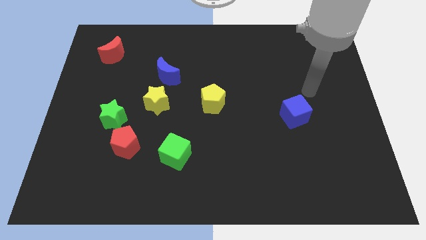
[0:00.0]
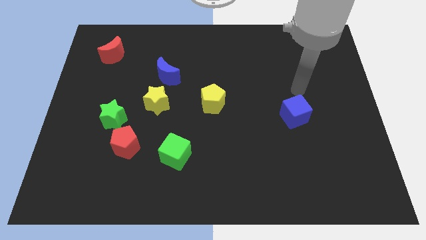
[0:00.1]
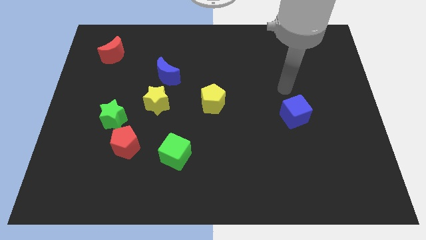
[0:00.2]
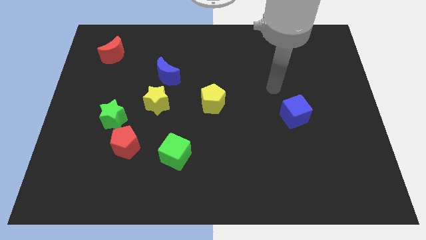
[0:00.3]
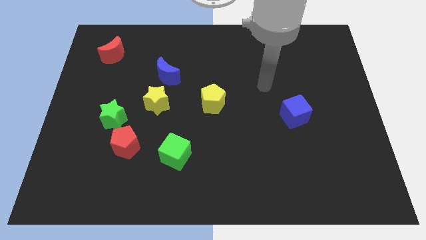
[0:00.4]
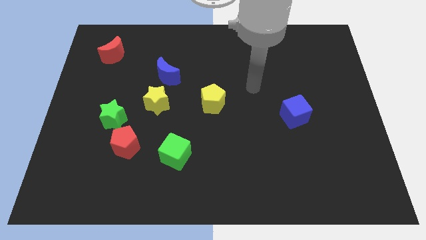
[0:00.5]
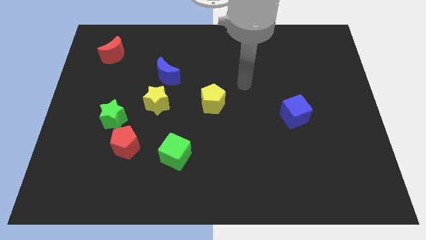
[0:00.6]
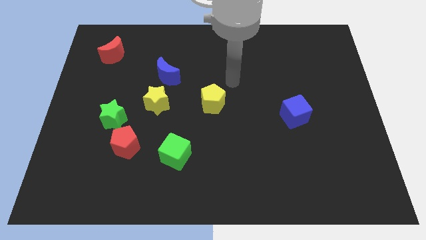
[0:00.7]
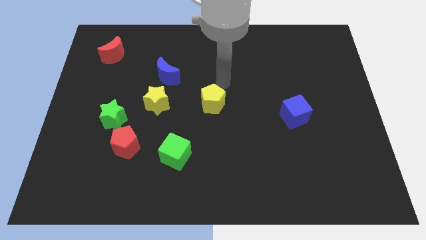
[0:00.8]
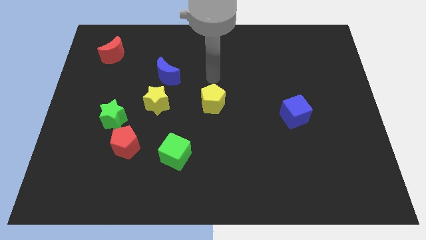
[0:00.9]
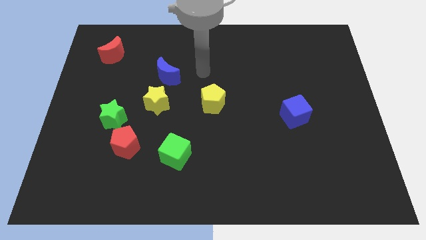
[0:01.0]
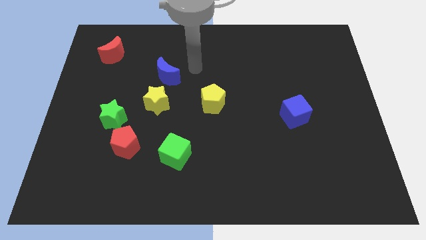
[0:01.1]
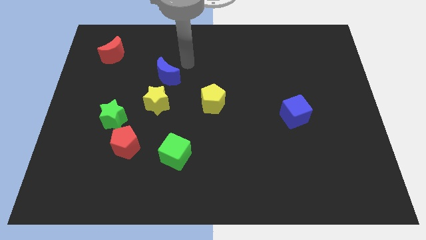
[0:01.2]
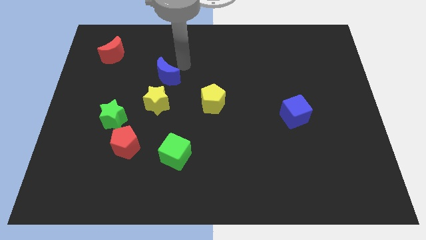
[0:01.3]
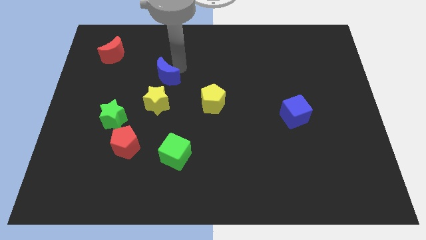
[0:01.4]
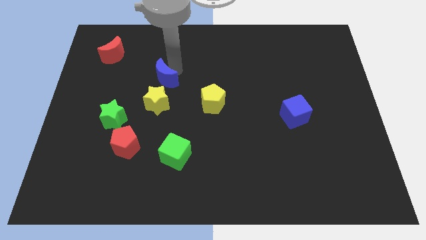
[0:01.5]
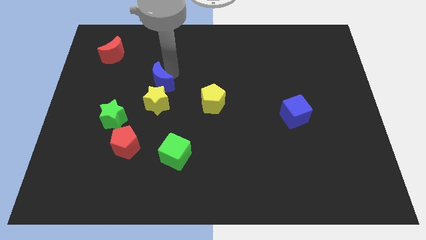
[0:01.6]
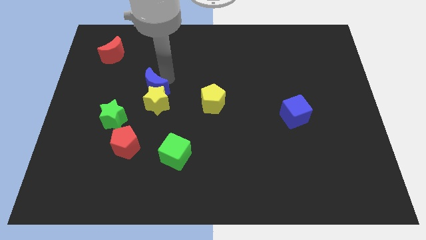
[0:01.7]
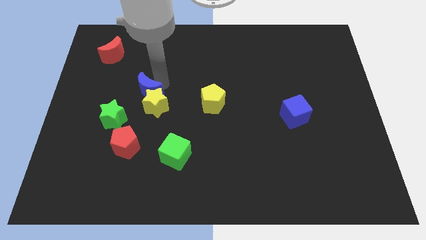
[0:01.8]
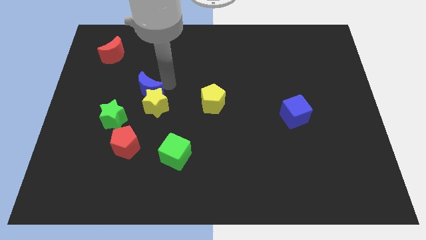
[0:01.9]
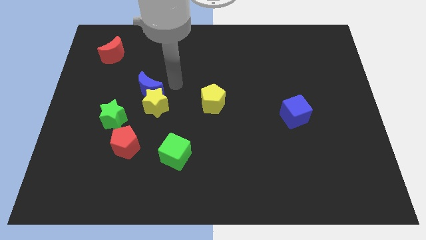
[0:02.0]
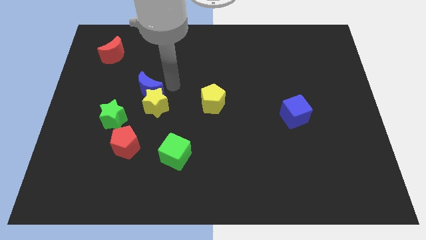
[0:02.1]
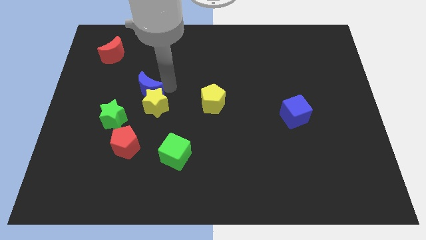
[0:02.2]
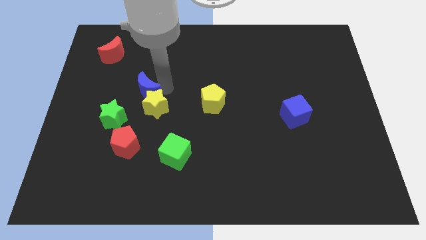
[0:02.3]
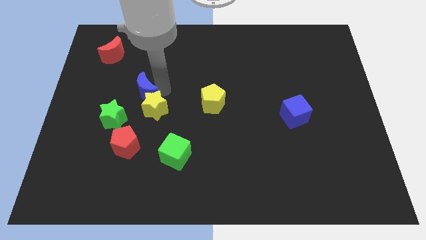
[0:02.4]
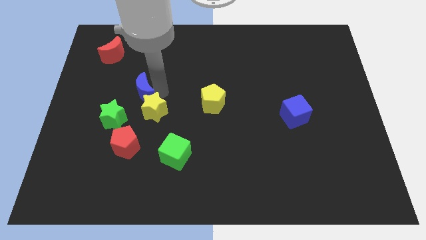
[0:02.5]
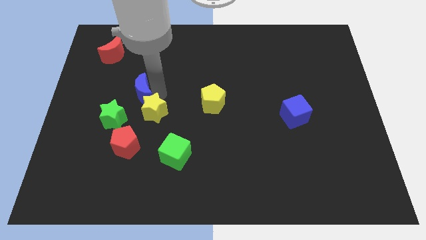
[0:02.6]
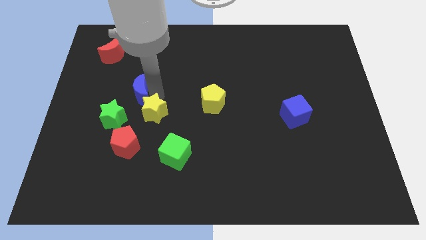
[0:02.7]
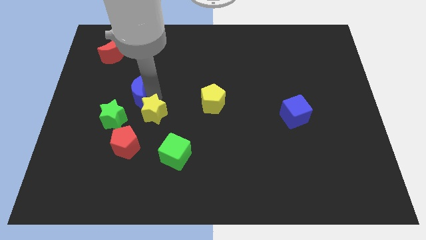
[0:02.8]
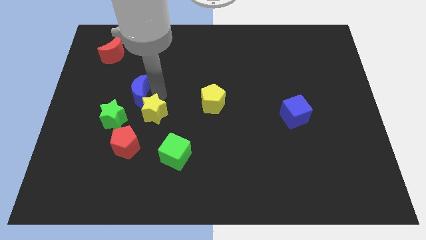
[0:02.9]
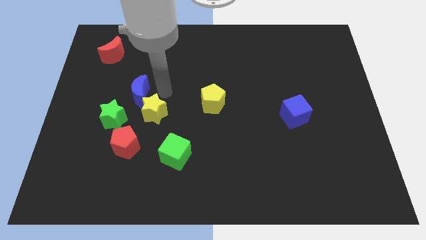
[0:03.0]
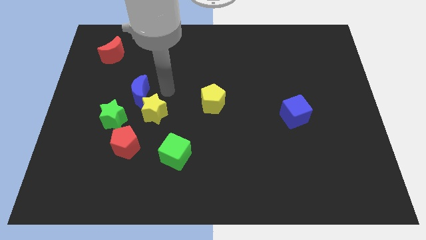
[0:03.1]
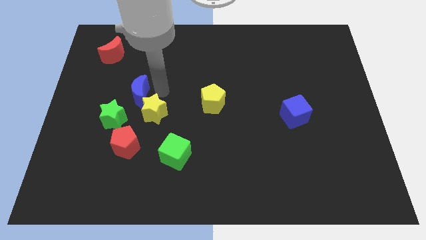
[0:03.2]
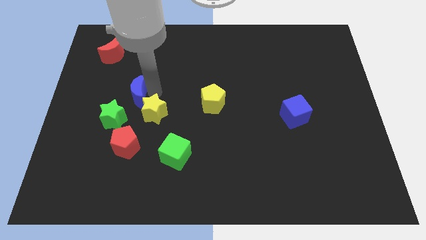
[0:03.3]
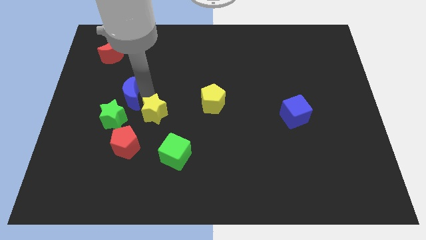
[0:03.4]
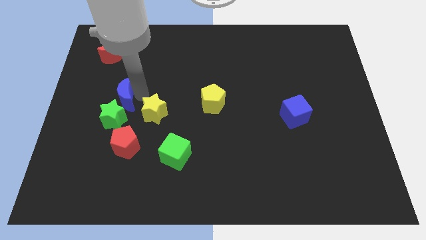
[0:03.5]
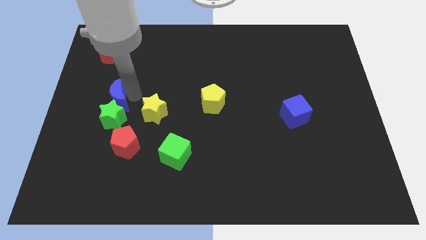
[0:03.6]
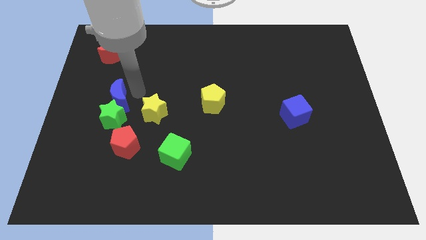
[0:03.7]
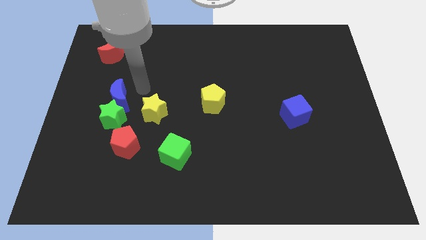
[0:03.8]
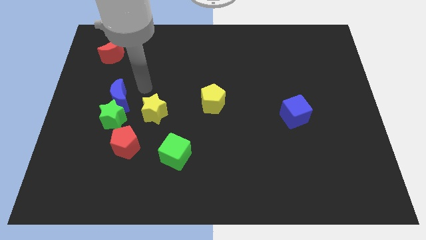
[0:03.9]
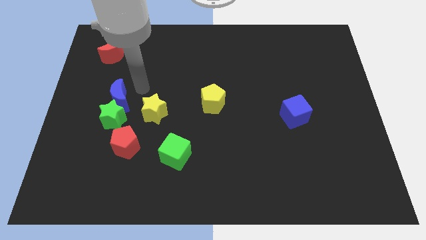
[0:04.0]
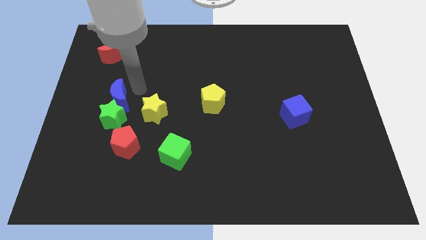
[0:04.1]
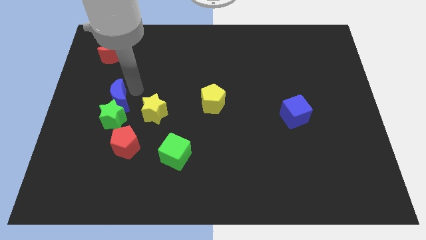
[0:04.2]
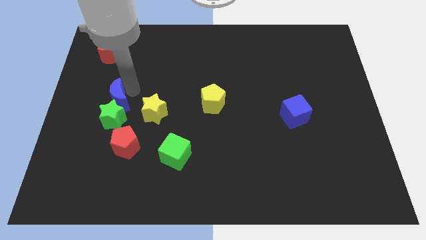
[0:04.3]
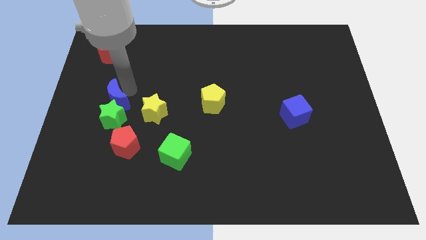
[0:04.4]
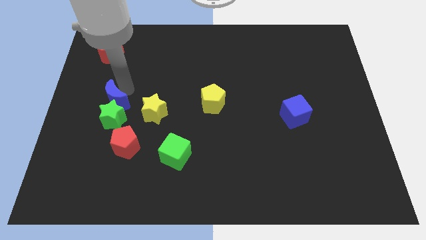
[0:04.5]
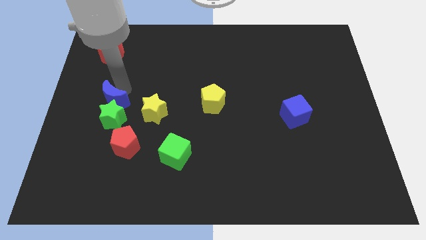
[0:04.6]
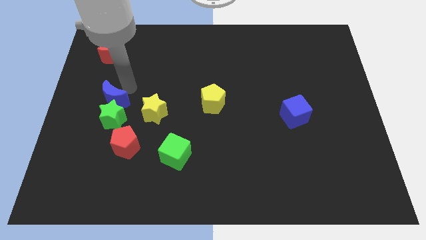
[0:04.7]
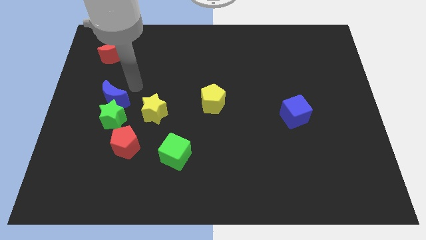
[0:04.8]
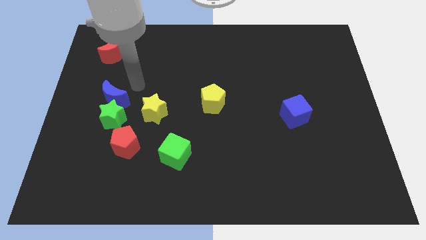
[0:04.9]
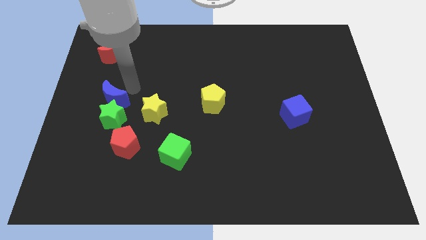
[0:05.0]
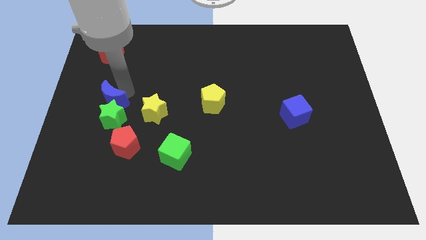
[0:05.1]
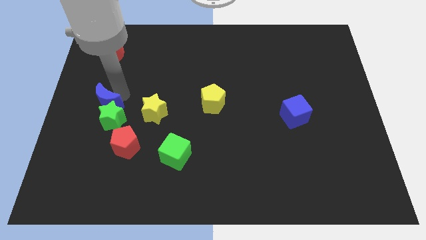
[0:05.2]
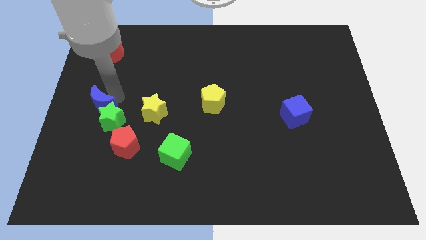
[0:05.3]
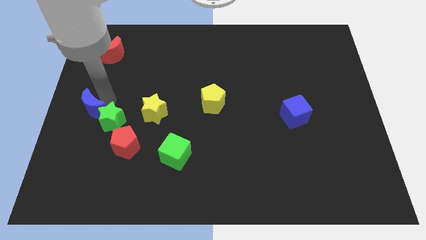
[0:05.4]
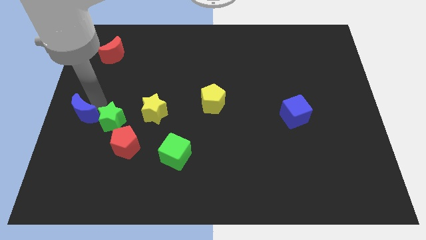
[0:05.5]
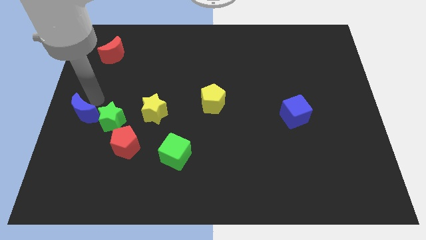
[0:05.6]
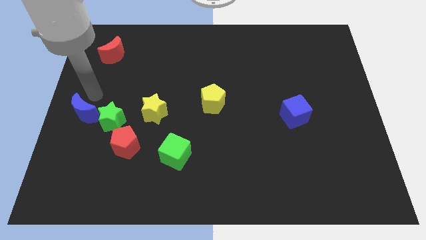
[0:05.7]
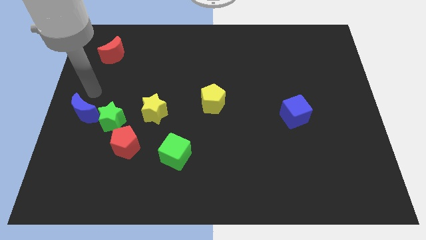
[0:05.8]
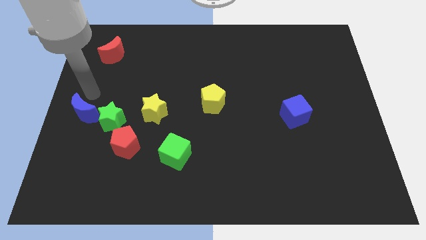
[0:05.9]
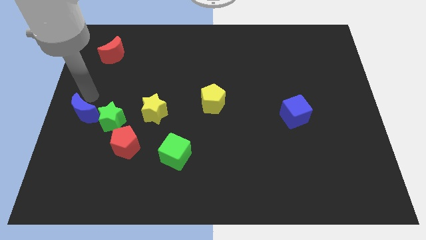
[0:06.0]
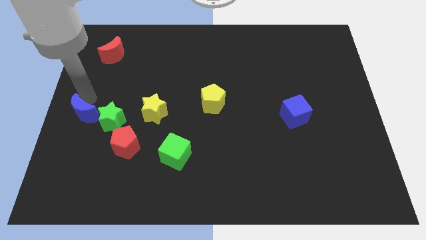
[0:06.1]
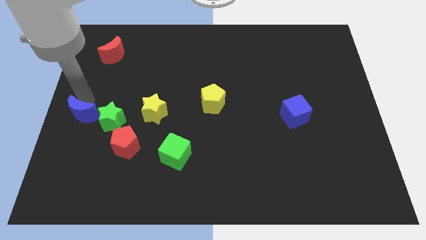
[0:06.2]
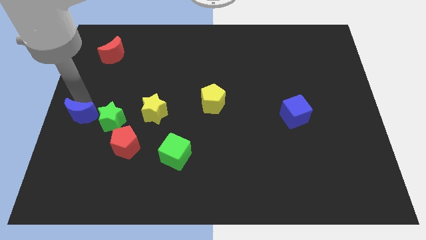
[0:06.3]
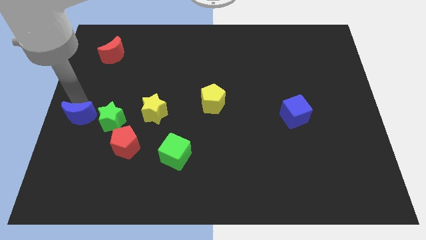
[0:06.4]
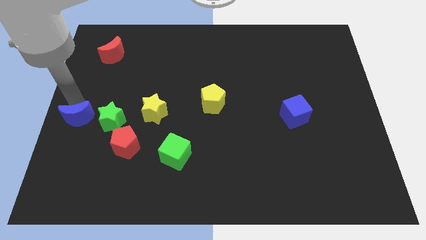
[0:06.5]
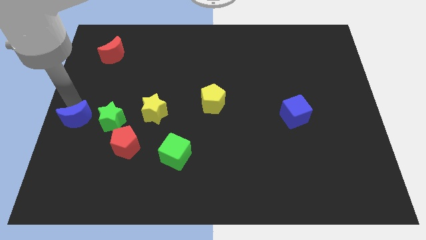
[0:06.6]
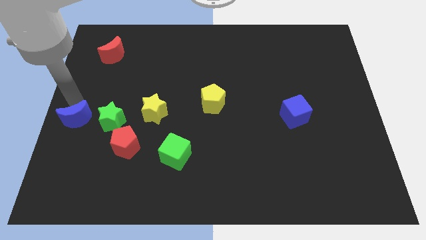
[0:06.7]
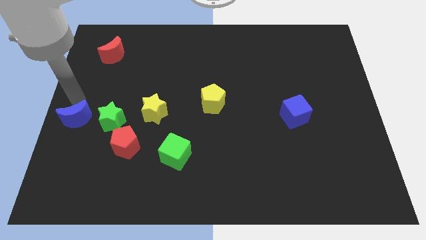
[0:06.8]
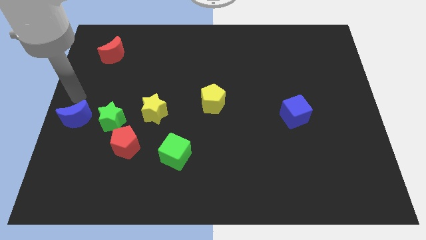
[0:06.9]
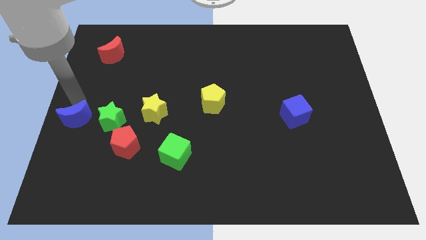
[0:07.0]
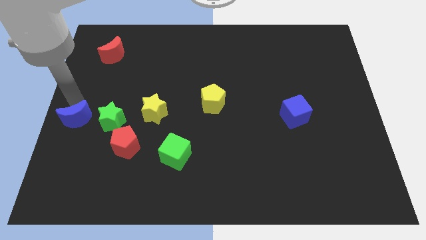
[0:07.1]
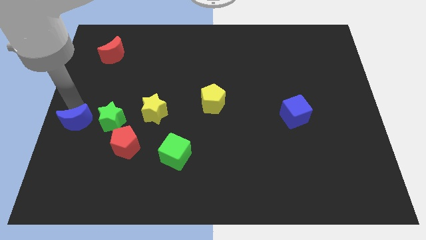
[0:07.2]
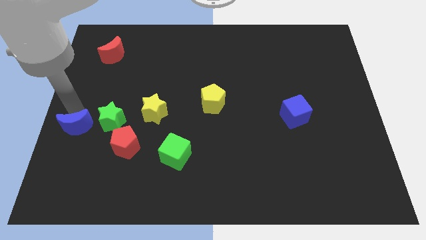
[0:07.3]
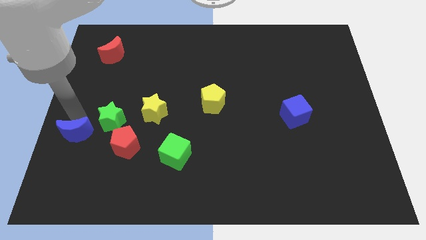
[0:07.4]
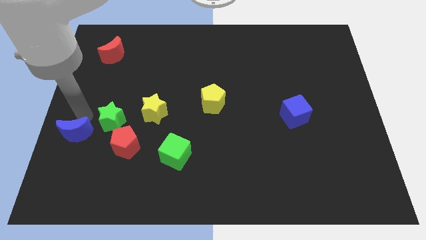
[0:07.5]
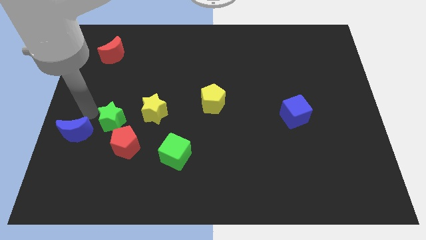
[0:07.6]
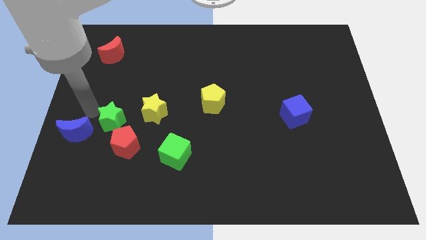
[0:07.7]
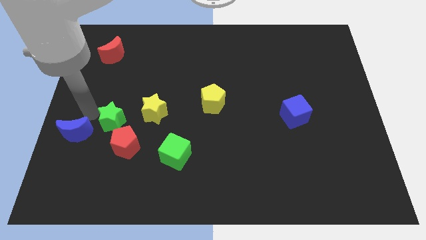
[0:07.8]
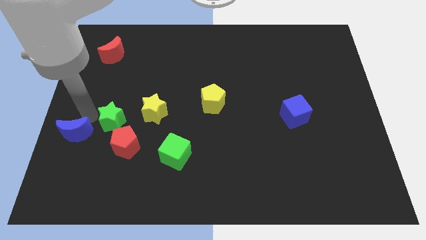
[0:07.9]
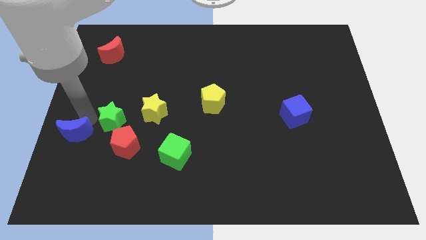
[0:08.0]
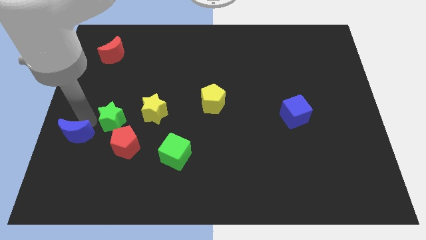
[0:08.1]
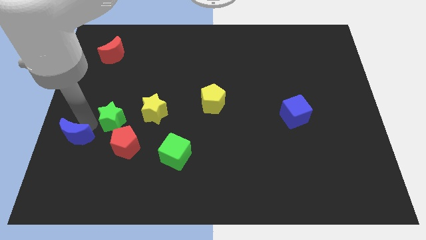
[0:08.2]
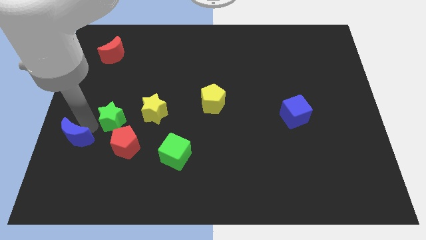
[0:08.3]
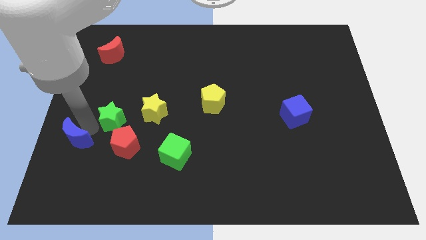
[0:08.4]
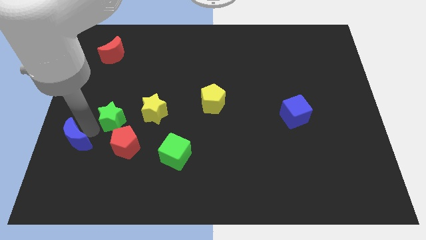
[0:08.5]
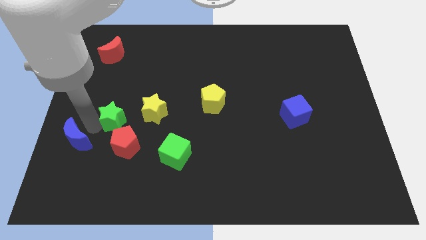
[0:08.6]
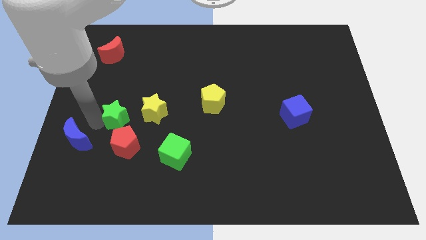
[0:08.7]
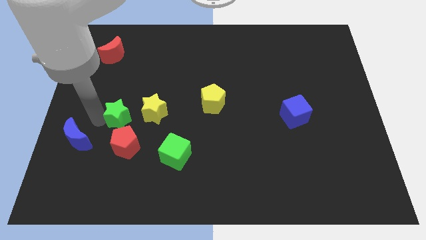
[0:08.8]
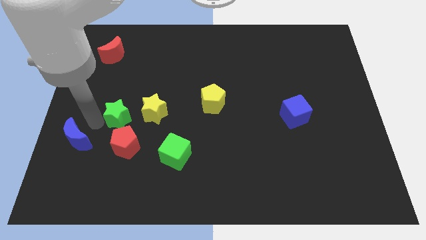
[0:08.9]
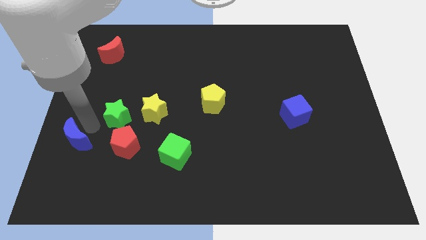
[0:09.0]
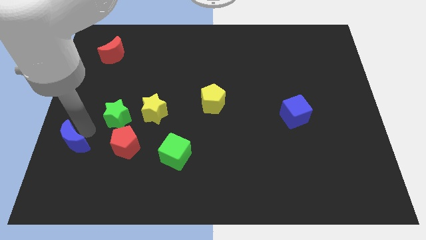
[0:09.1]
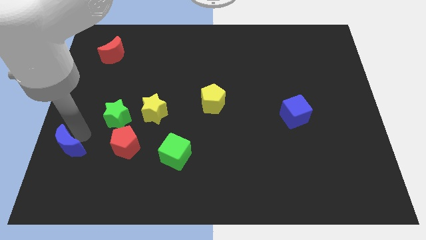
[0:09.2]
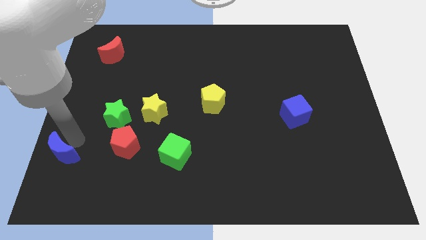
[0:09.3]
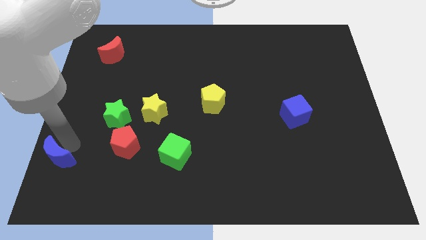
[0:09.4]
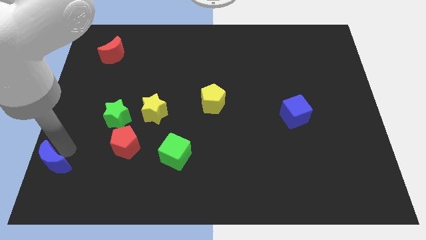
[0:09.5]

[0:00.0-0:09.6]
put the blue moon to the bottom left of the board
